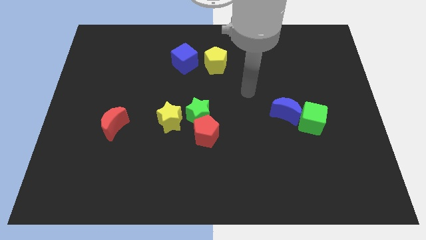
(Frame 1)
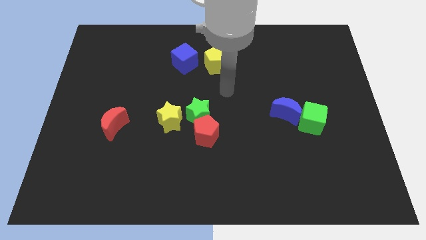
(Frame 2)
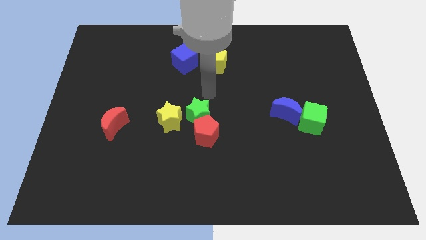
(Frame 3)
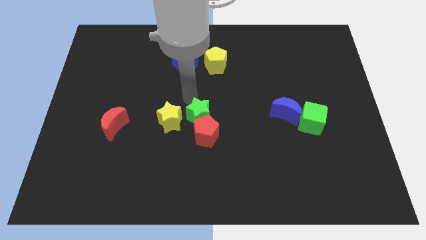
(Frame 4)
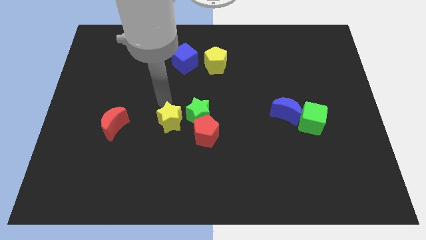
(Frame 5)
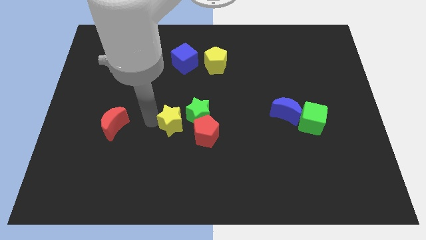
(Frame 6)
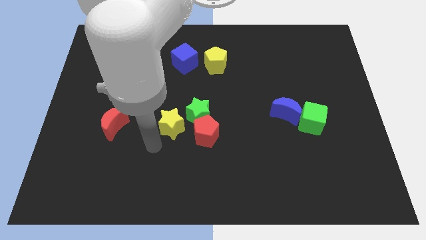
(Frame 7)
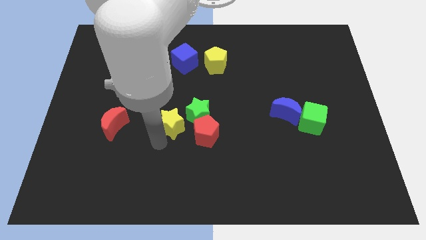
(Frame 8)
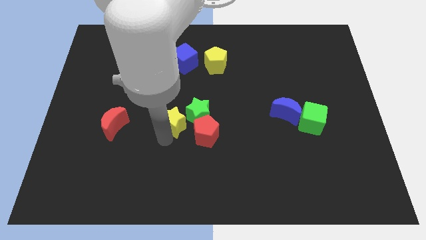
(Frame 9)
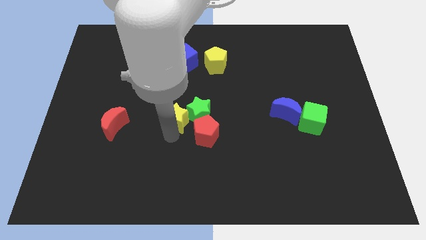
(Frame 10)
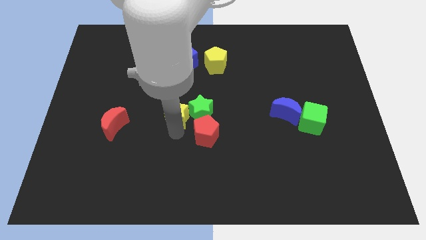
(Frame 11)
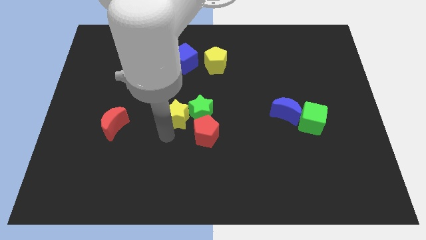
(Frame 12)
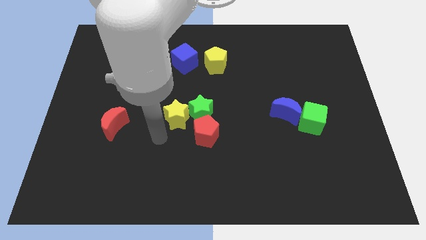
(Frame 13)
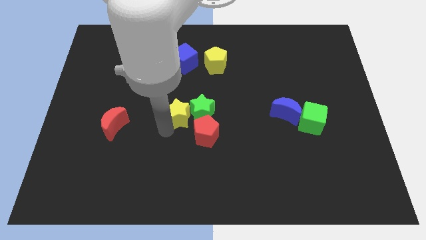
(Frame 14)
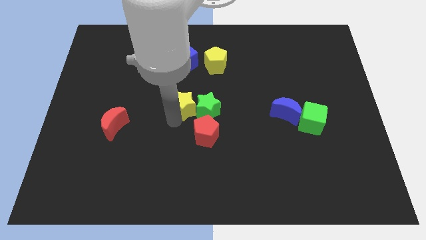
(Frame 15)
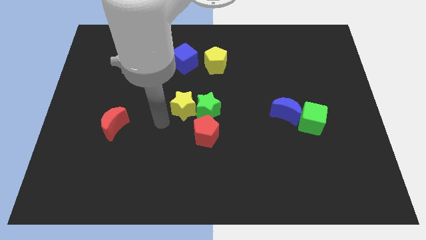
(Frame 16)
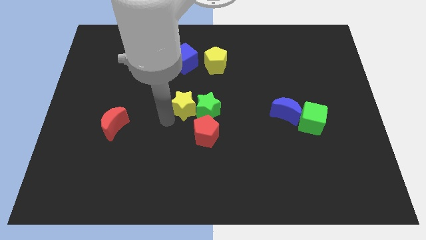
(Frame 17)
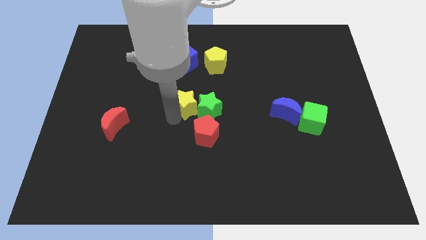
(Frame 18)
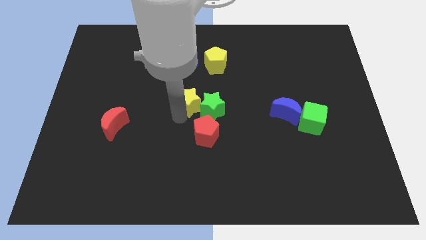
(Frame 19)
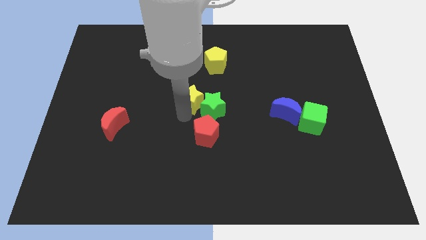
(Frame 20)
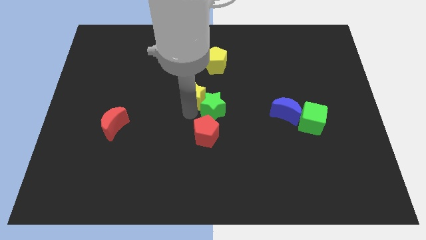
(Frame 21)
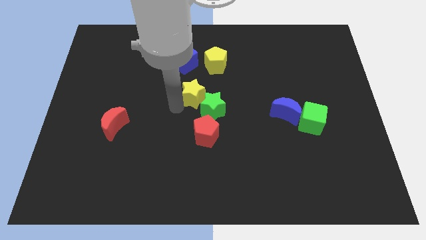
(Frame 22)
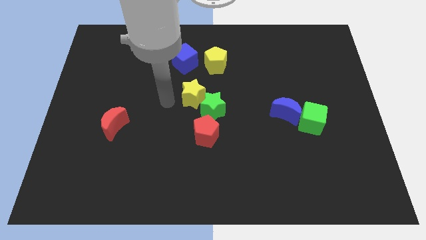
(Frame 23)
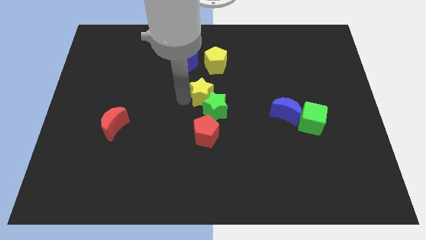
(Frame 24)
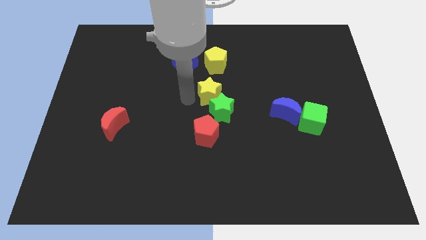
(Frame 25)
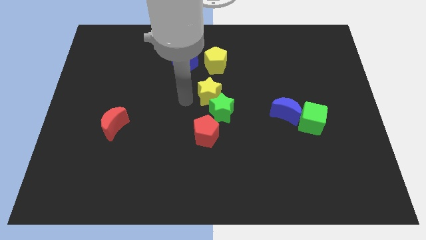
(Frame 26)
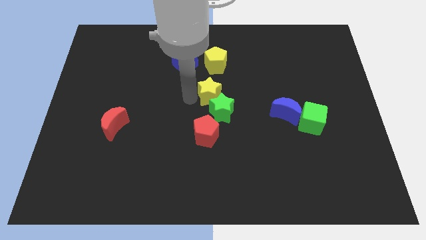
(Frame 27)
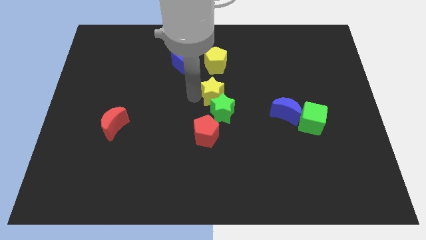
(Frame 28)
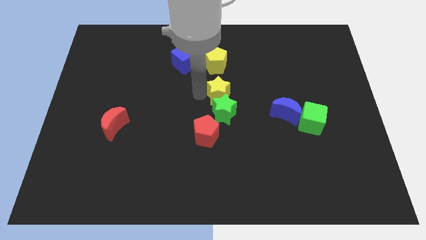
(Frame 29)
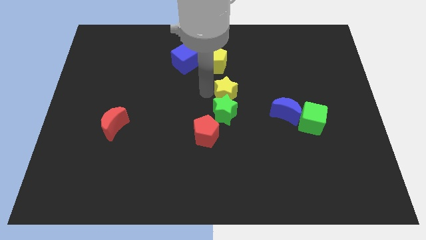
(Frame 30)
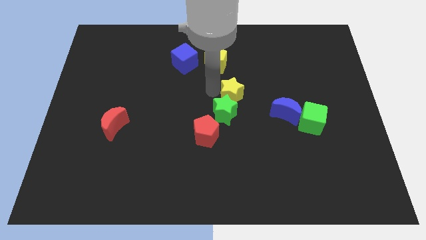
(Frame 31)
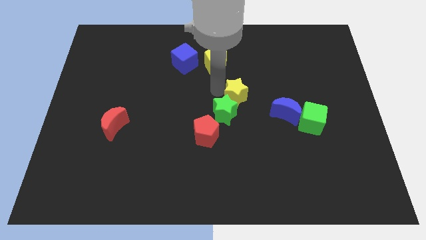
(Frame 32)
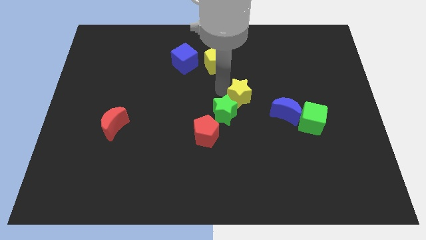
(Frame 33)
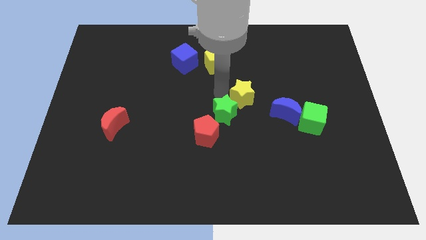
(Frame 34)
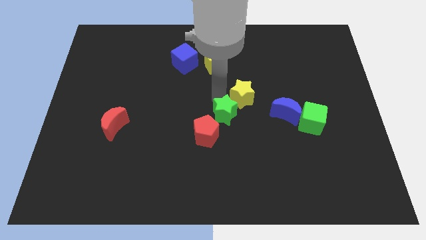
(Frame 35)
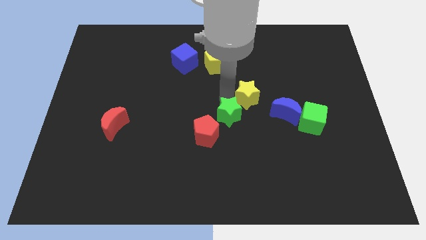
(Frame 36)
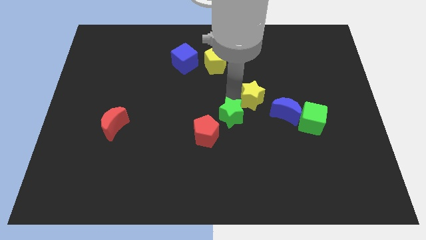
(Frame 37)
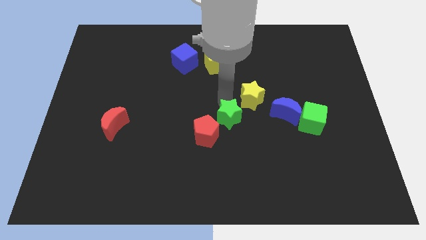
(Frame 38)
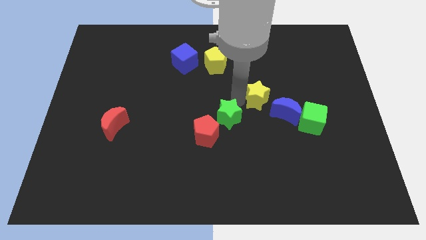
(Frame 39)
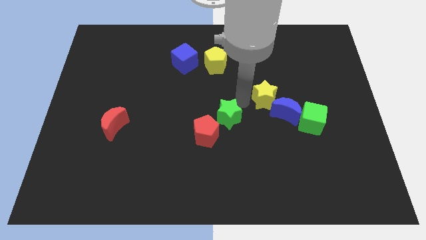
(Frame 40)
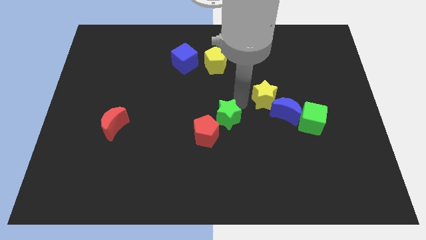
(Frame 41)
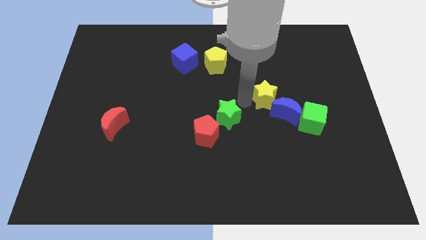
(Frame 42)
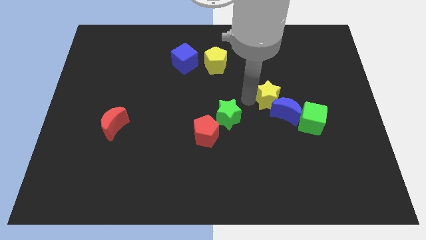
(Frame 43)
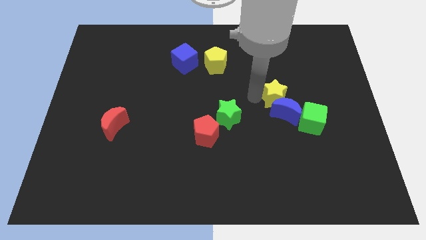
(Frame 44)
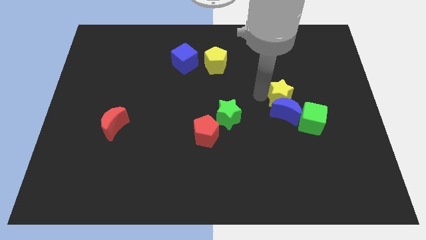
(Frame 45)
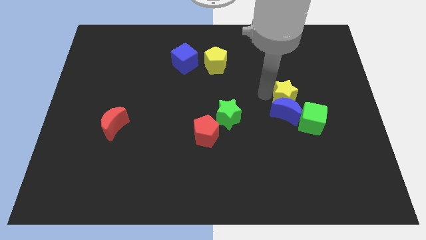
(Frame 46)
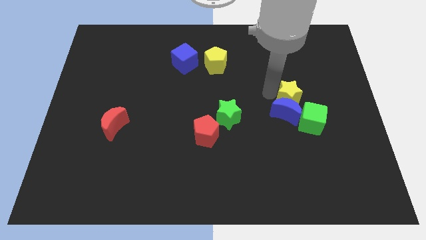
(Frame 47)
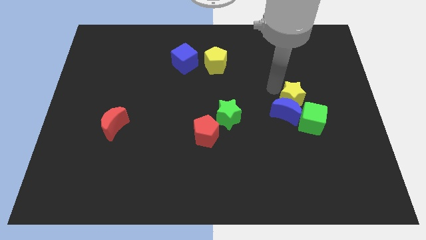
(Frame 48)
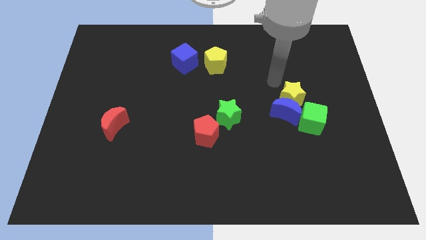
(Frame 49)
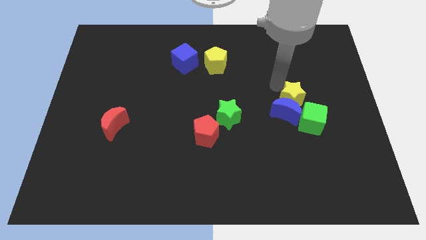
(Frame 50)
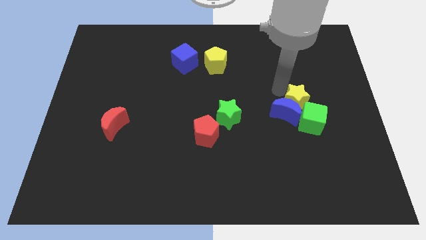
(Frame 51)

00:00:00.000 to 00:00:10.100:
push the yellow star to the green cube

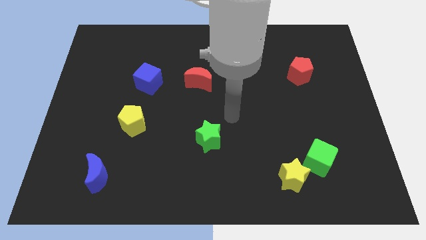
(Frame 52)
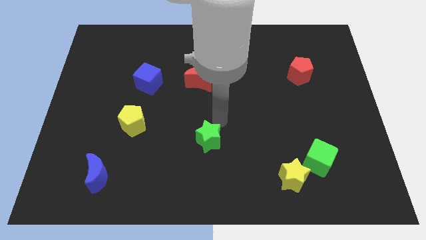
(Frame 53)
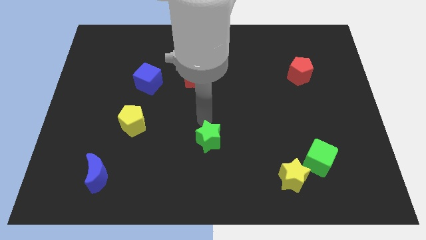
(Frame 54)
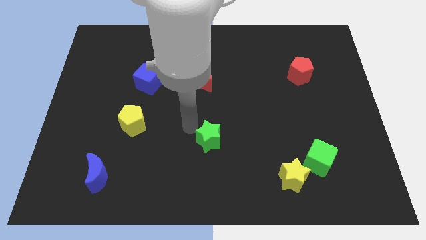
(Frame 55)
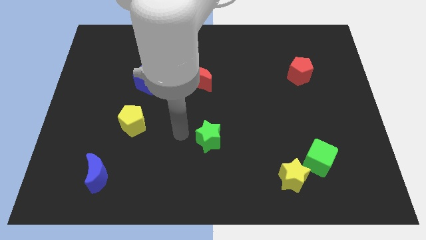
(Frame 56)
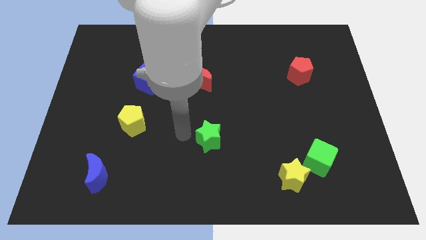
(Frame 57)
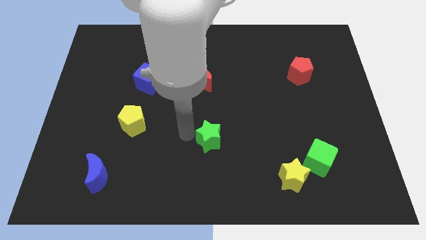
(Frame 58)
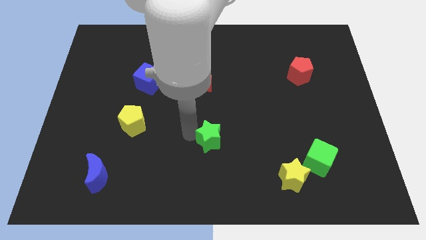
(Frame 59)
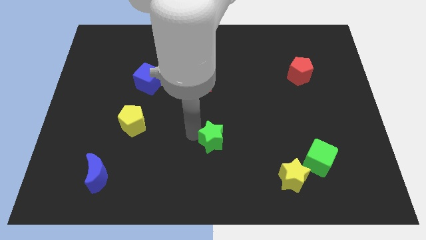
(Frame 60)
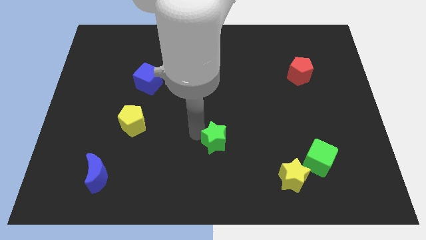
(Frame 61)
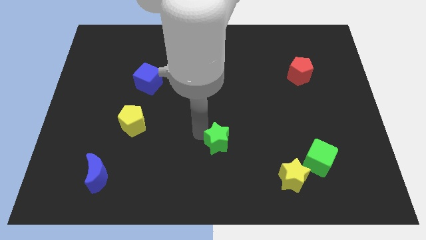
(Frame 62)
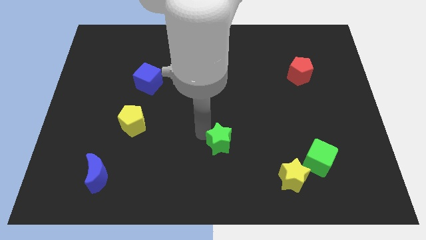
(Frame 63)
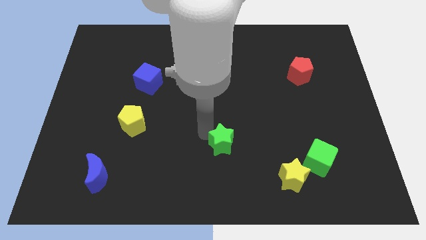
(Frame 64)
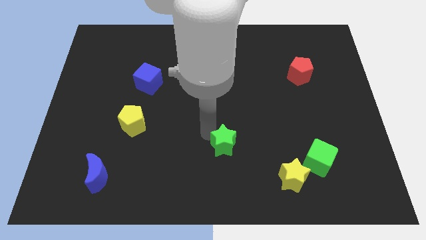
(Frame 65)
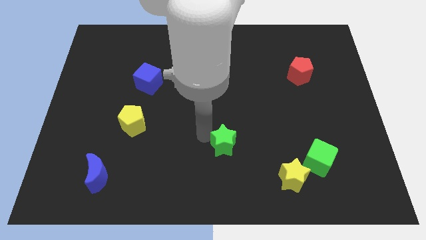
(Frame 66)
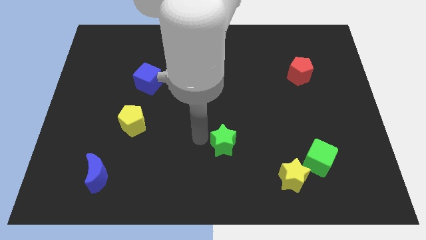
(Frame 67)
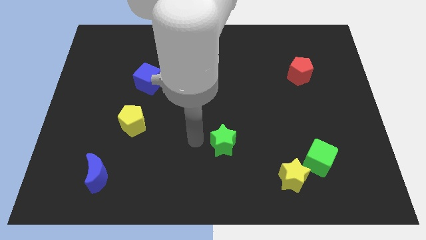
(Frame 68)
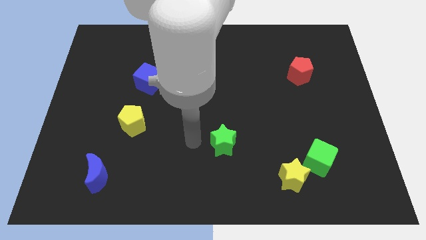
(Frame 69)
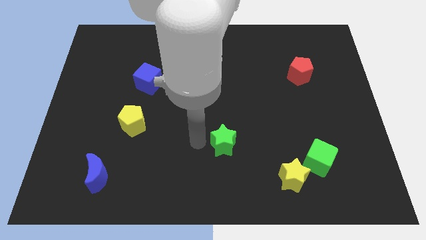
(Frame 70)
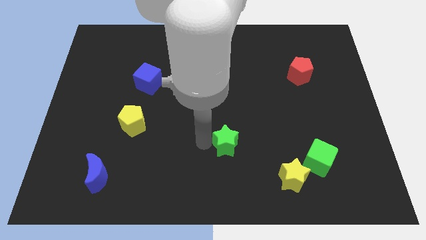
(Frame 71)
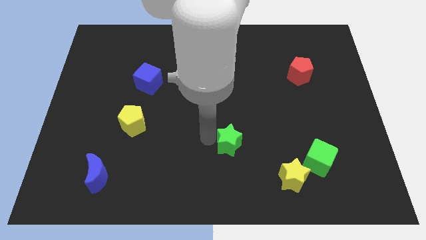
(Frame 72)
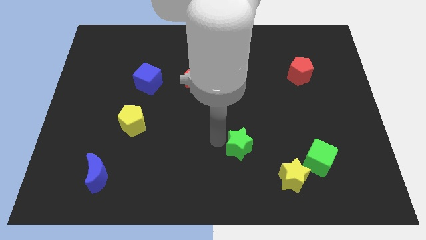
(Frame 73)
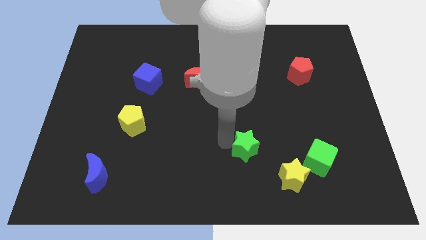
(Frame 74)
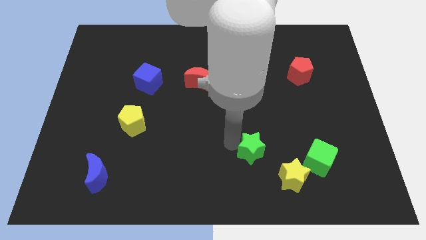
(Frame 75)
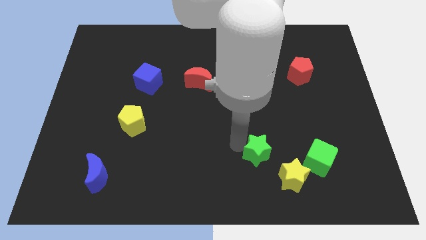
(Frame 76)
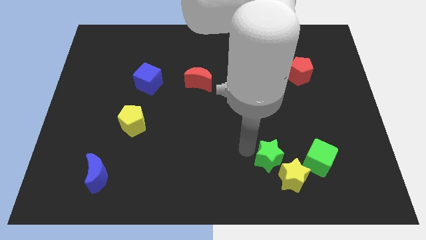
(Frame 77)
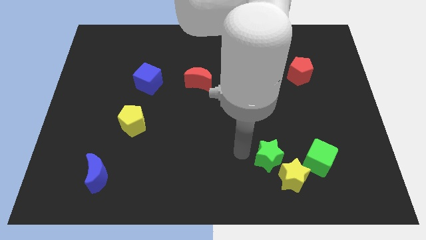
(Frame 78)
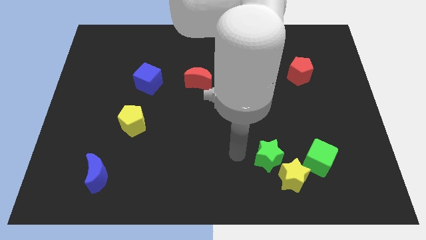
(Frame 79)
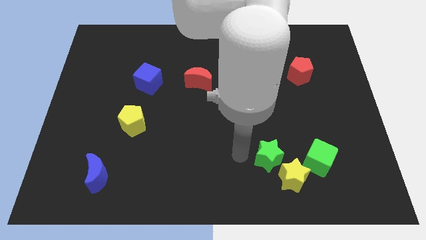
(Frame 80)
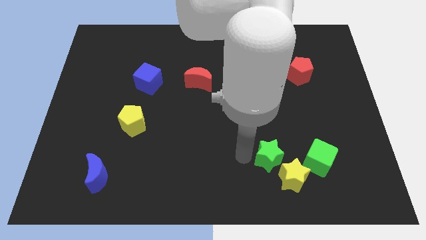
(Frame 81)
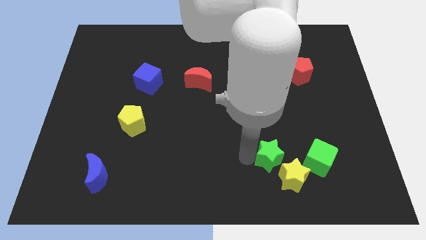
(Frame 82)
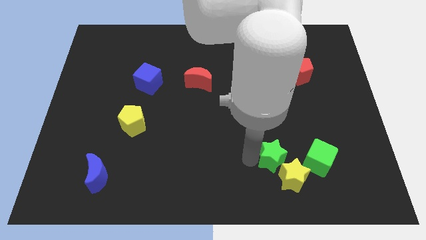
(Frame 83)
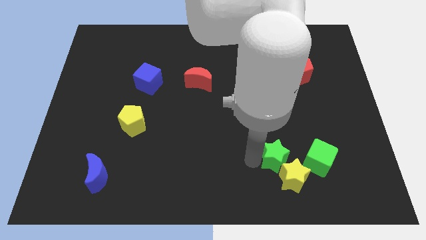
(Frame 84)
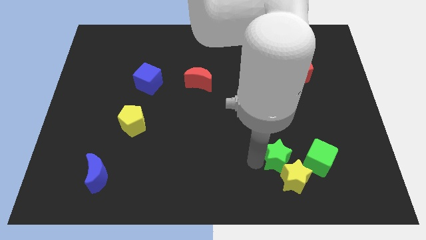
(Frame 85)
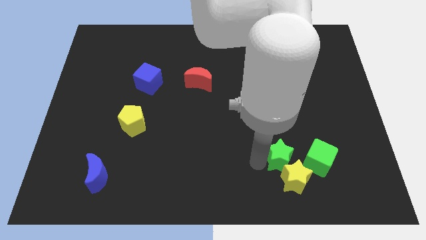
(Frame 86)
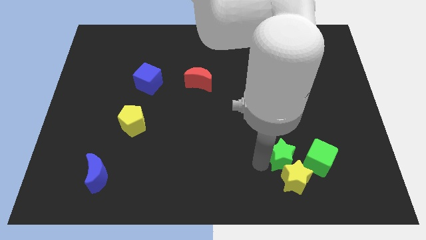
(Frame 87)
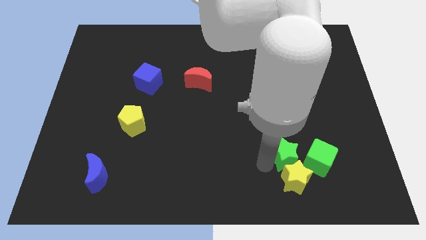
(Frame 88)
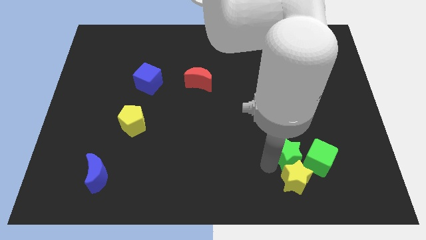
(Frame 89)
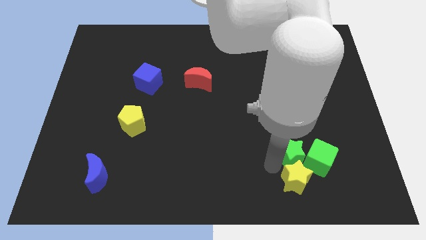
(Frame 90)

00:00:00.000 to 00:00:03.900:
push the green star to the green cube
